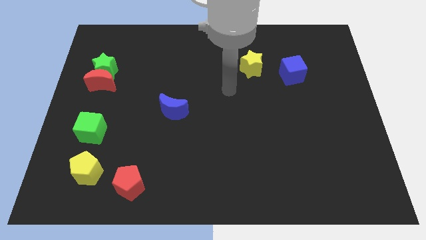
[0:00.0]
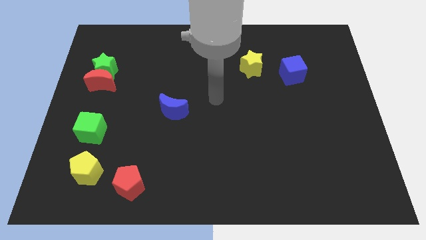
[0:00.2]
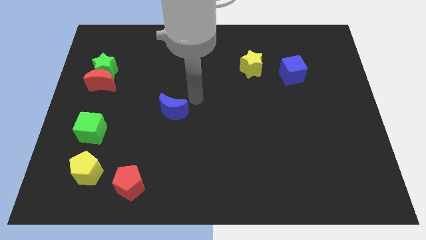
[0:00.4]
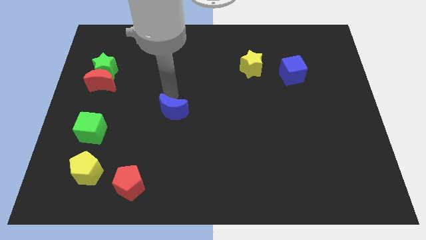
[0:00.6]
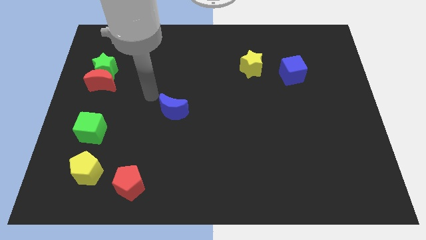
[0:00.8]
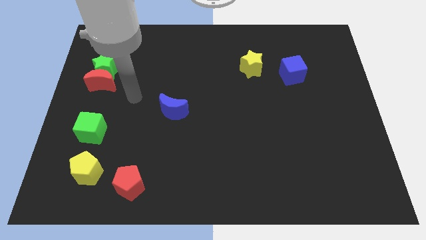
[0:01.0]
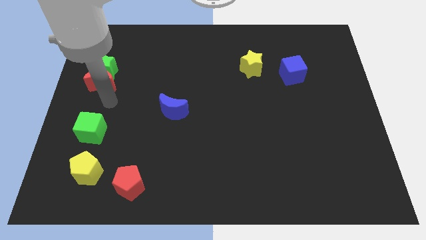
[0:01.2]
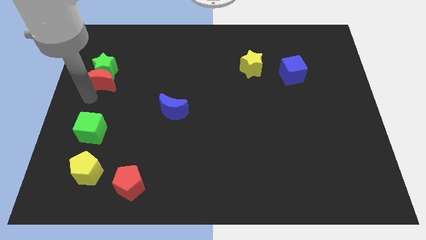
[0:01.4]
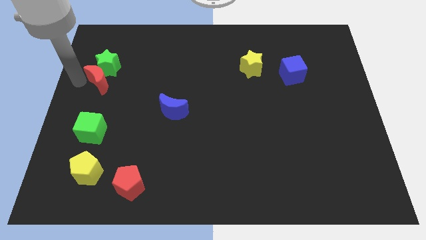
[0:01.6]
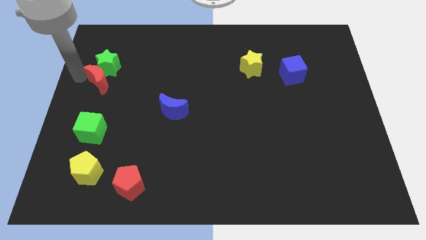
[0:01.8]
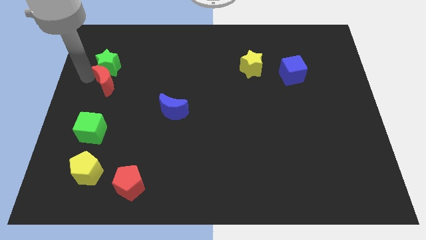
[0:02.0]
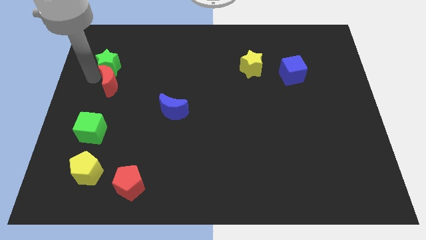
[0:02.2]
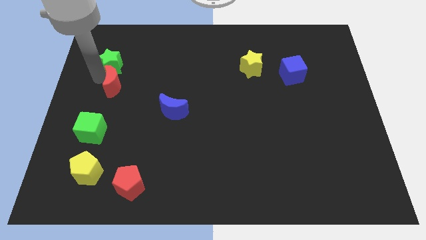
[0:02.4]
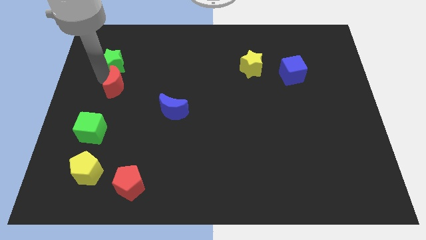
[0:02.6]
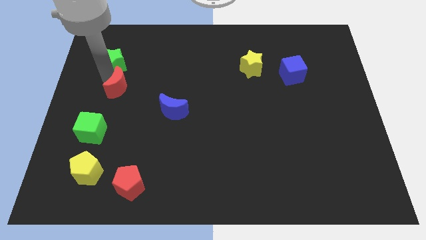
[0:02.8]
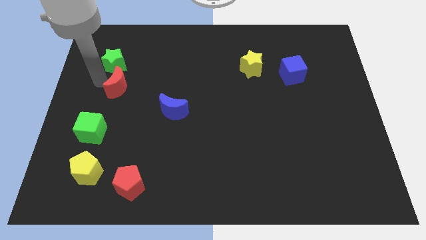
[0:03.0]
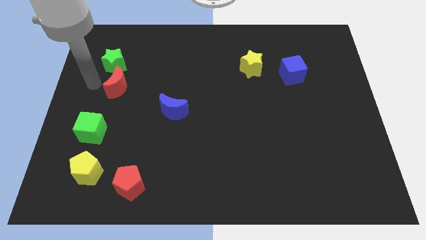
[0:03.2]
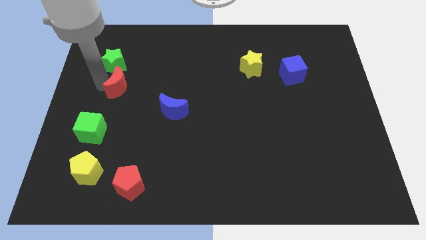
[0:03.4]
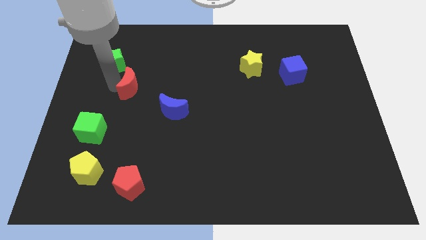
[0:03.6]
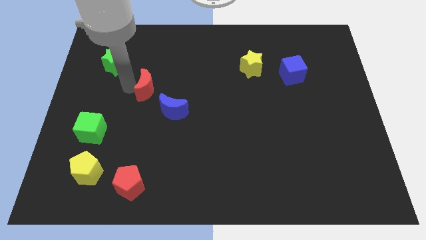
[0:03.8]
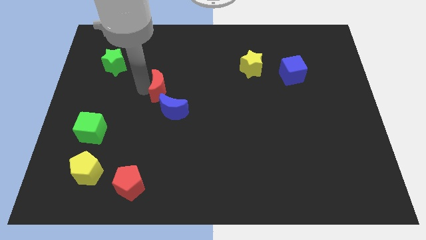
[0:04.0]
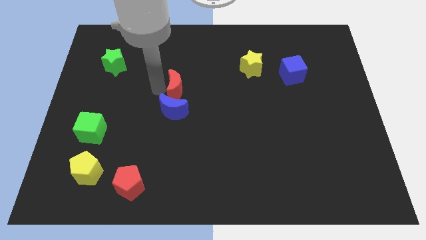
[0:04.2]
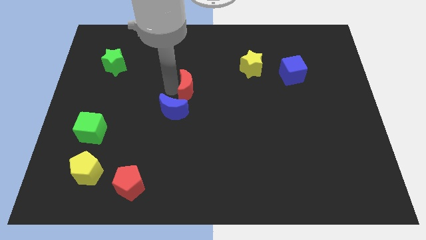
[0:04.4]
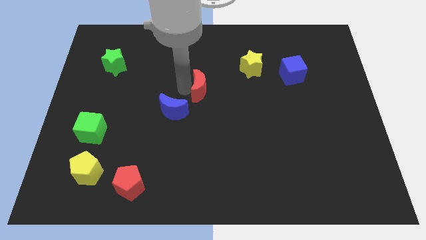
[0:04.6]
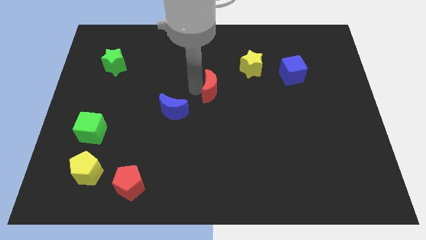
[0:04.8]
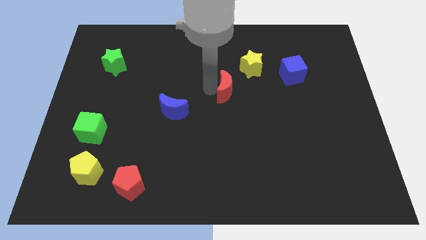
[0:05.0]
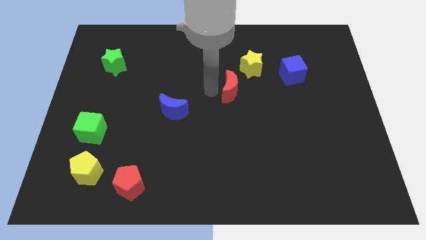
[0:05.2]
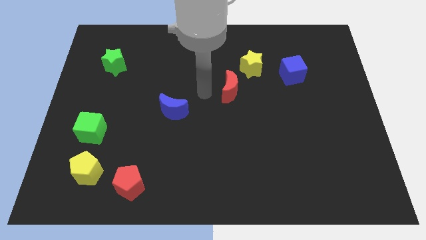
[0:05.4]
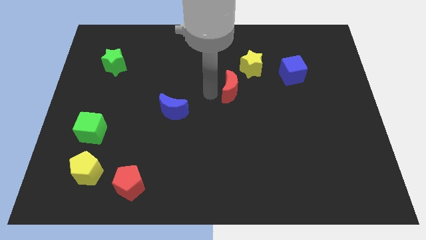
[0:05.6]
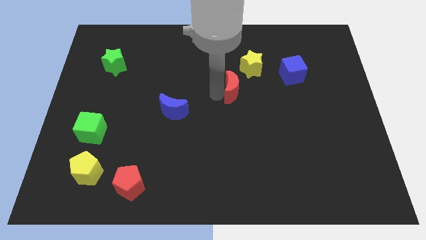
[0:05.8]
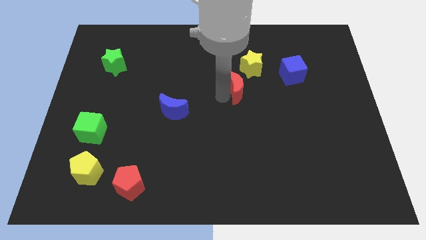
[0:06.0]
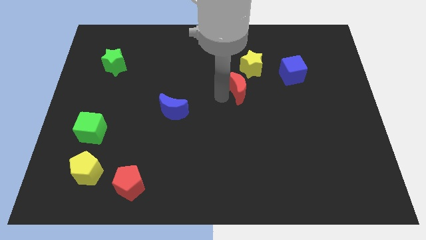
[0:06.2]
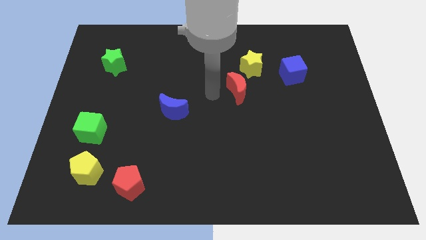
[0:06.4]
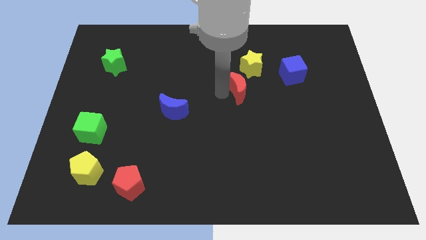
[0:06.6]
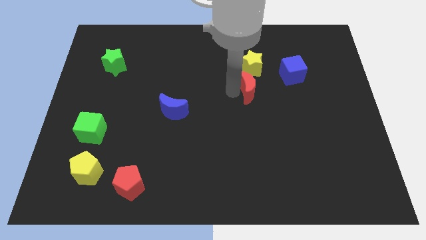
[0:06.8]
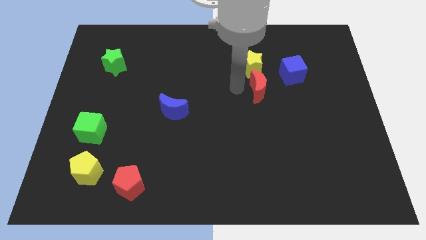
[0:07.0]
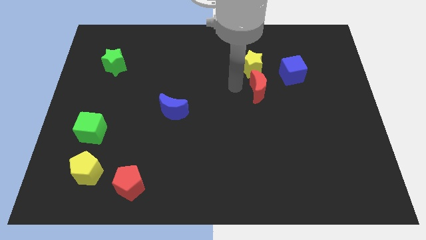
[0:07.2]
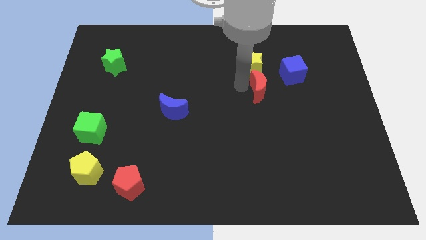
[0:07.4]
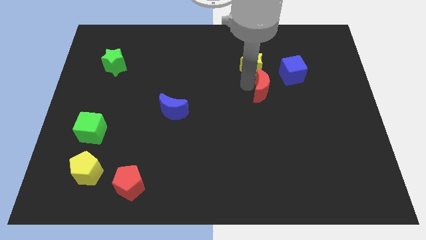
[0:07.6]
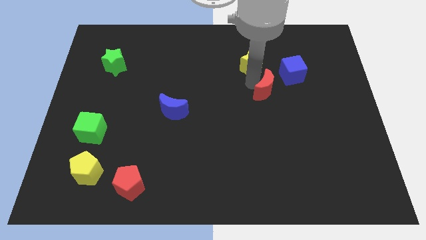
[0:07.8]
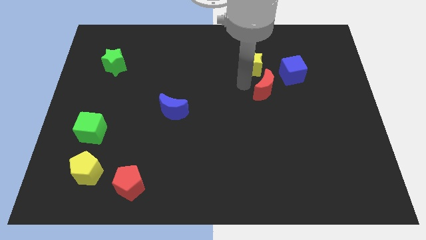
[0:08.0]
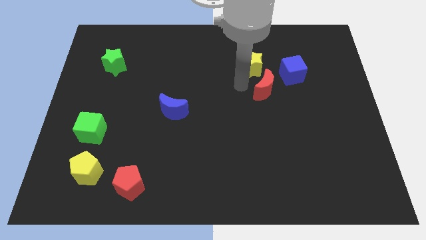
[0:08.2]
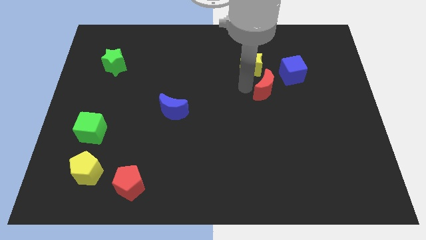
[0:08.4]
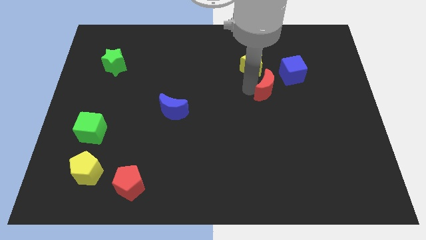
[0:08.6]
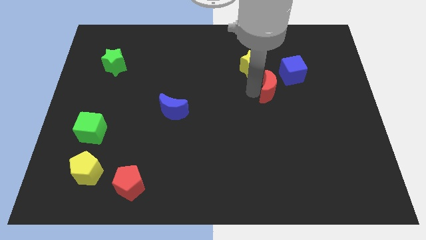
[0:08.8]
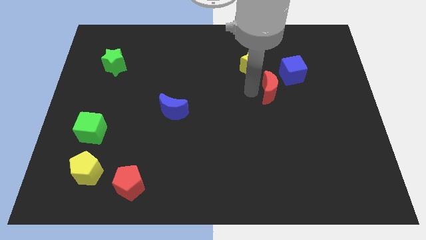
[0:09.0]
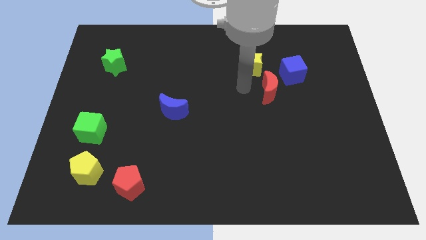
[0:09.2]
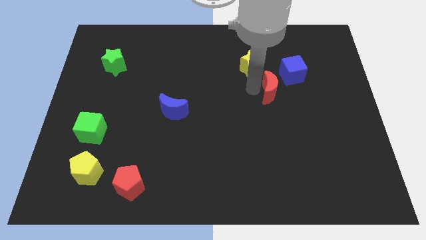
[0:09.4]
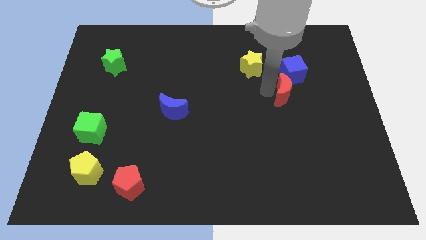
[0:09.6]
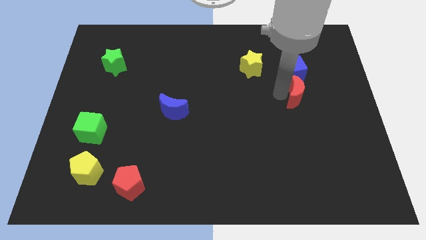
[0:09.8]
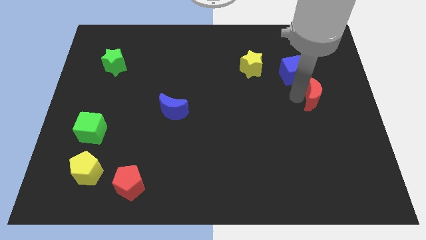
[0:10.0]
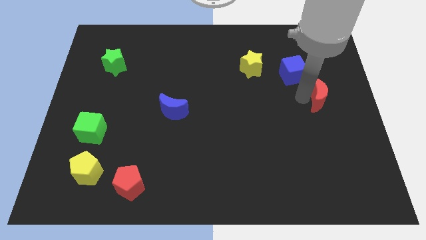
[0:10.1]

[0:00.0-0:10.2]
push the red moon to the right side of the board

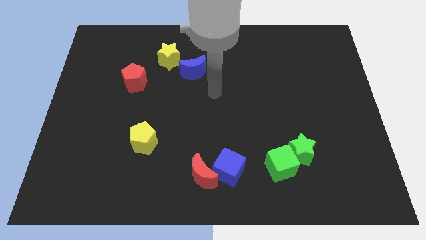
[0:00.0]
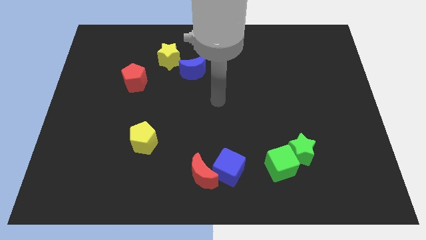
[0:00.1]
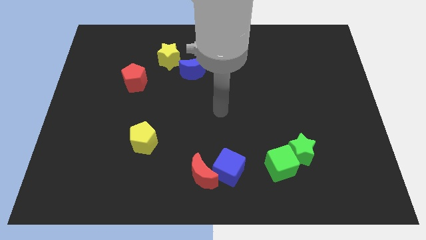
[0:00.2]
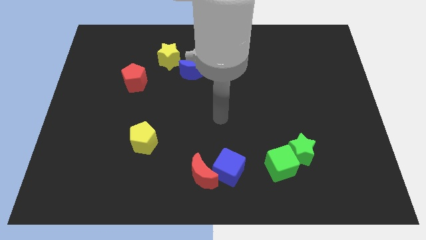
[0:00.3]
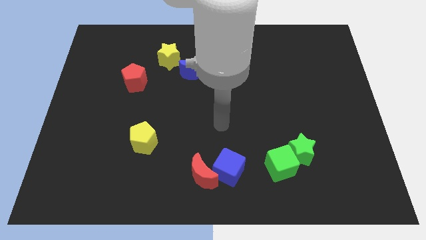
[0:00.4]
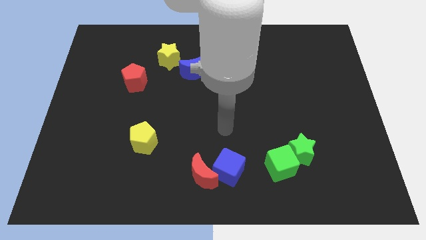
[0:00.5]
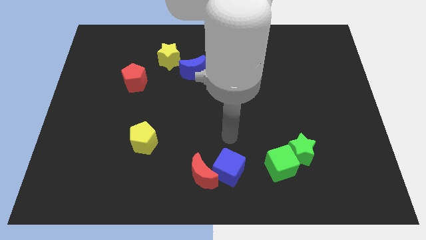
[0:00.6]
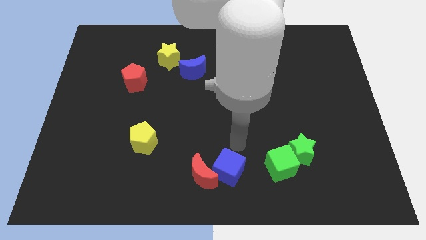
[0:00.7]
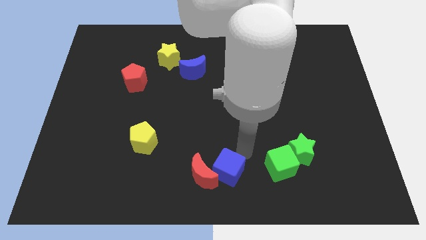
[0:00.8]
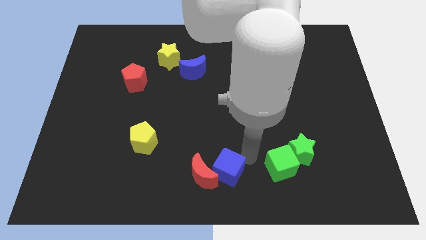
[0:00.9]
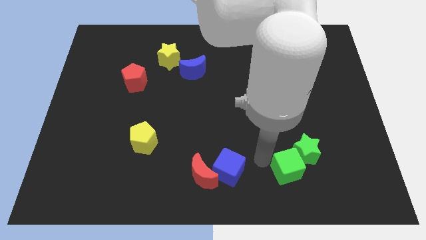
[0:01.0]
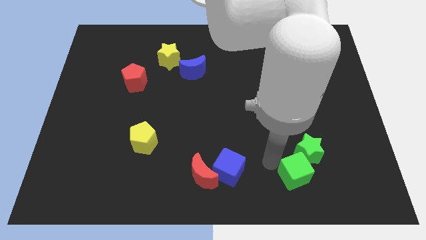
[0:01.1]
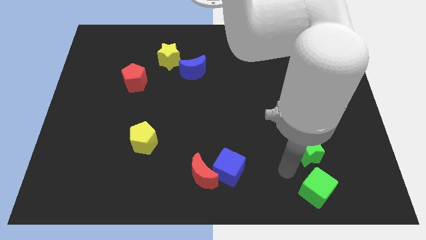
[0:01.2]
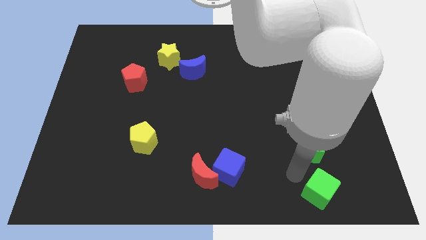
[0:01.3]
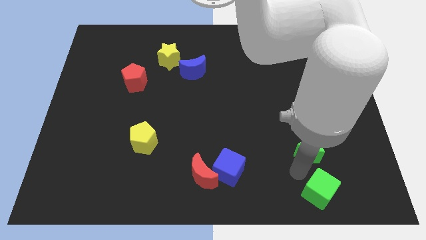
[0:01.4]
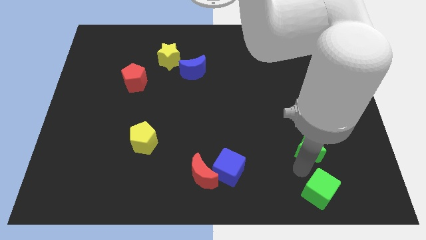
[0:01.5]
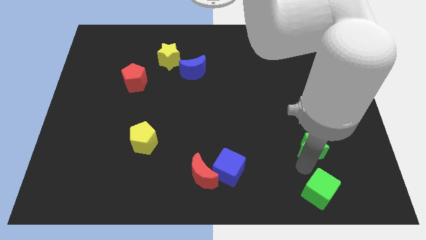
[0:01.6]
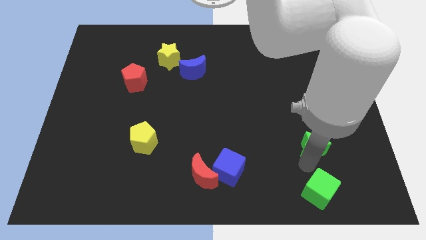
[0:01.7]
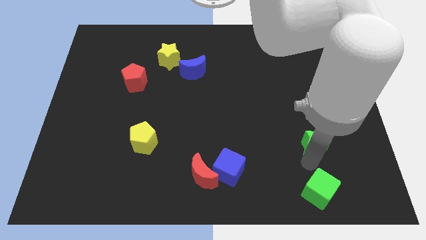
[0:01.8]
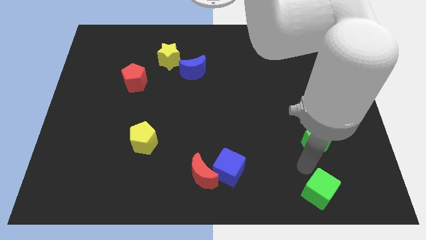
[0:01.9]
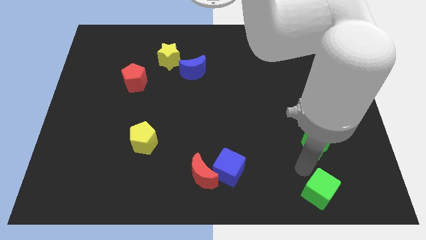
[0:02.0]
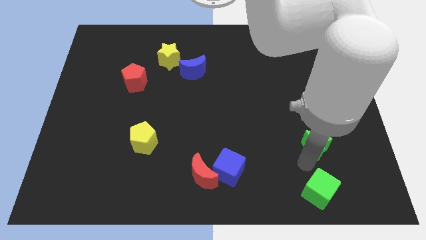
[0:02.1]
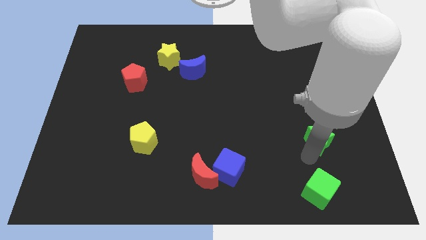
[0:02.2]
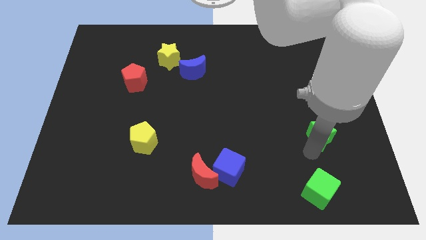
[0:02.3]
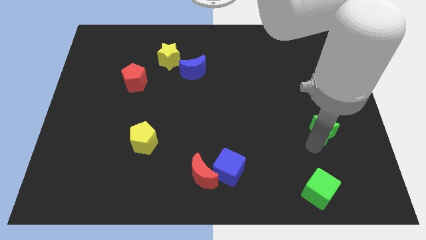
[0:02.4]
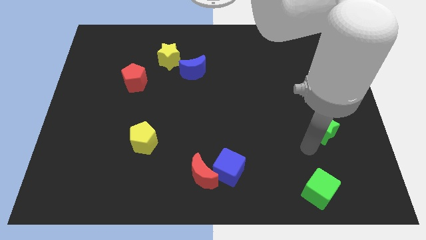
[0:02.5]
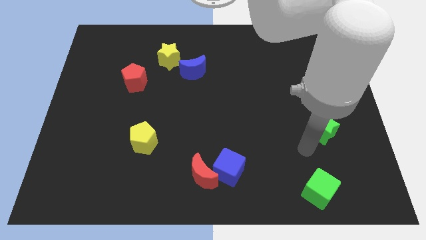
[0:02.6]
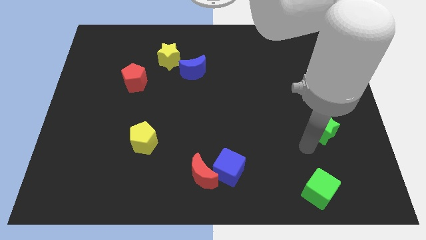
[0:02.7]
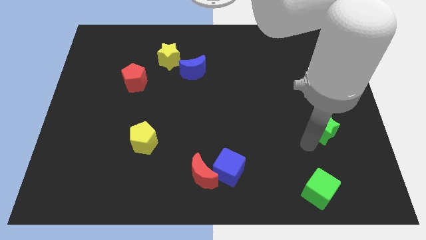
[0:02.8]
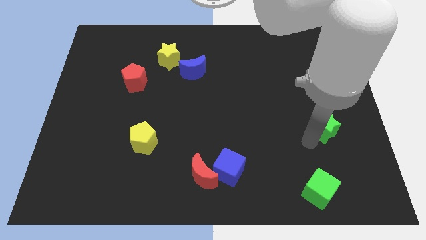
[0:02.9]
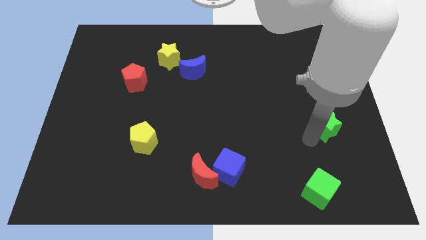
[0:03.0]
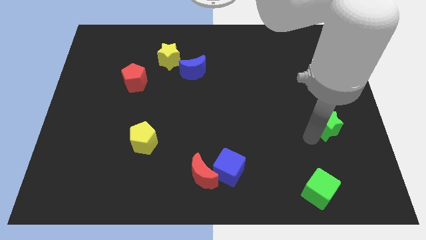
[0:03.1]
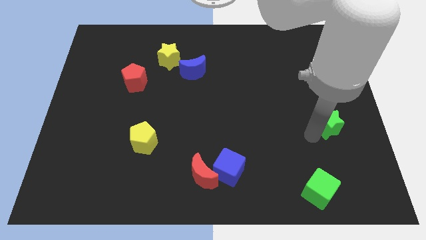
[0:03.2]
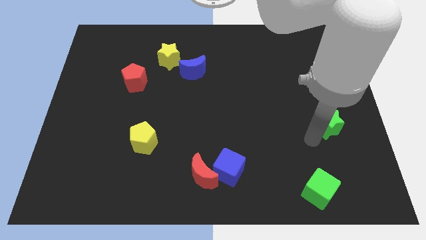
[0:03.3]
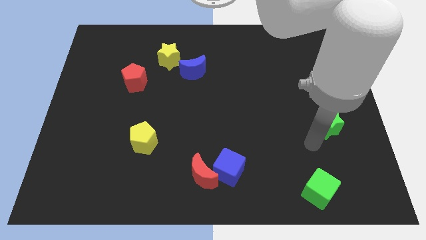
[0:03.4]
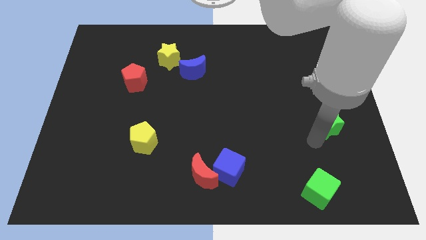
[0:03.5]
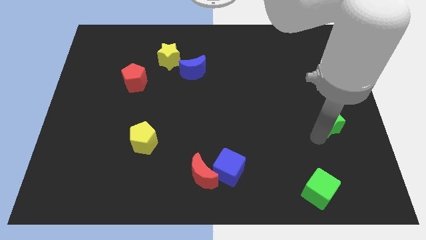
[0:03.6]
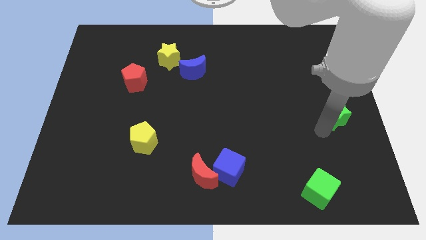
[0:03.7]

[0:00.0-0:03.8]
slide the green star to the center right
